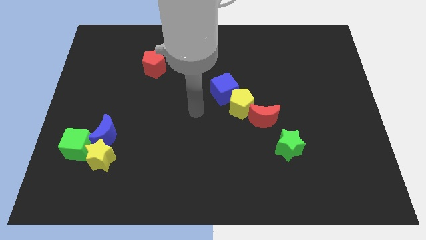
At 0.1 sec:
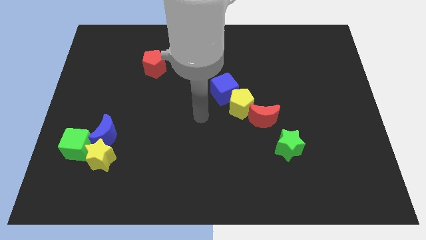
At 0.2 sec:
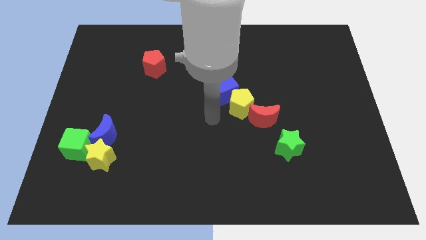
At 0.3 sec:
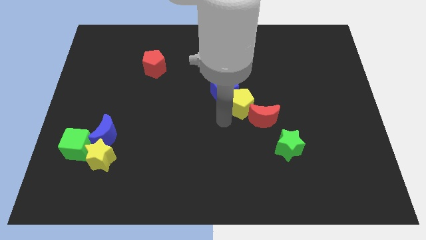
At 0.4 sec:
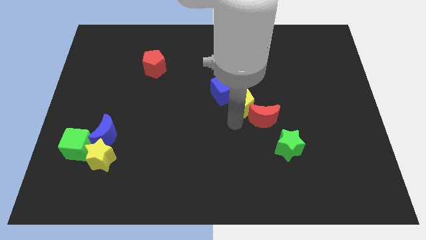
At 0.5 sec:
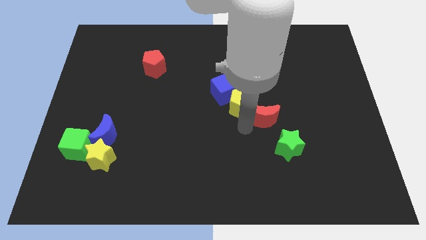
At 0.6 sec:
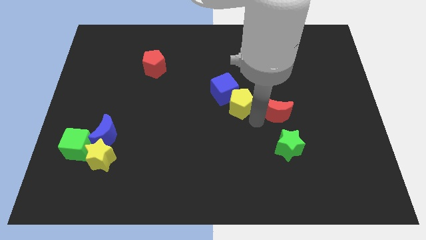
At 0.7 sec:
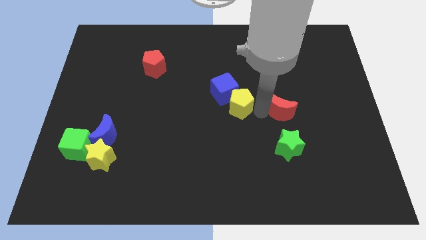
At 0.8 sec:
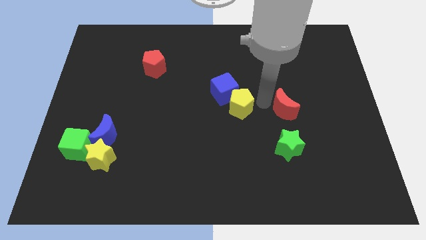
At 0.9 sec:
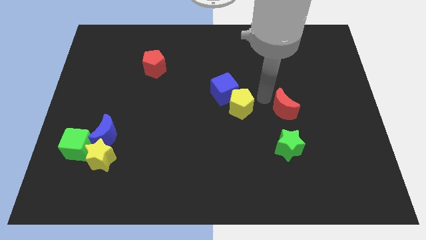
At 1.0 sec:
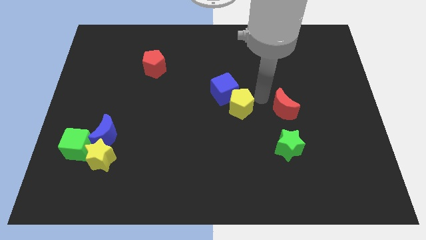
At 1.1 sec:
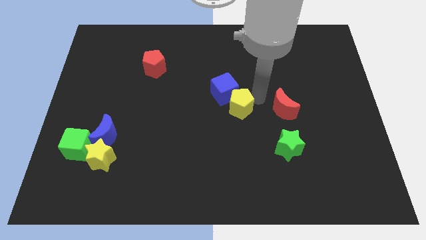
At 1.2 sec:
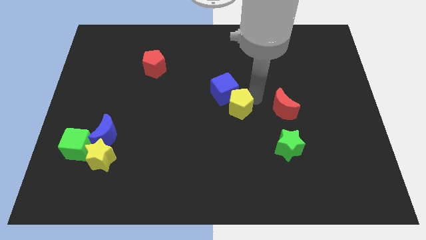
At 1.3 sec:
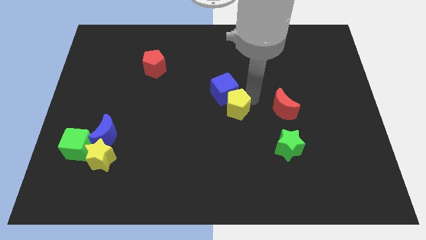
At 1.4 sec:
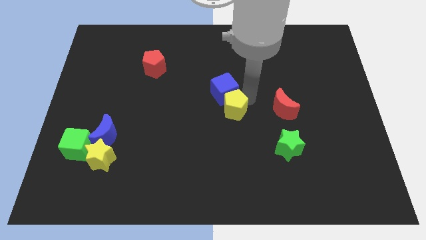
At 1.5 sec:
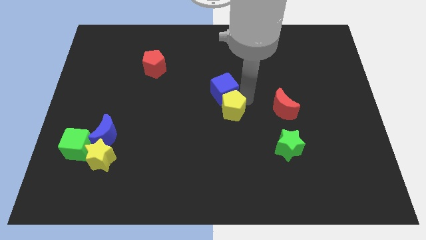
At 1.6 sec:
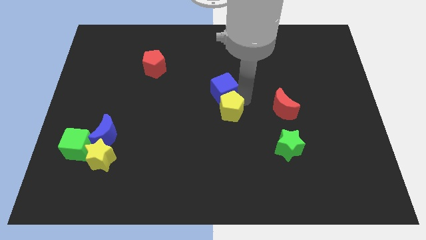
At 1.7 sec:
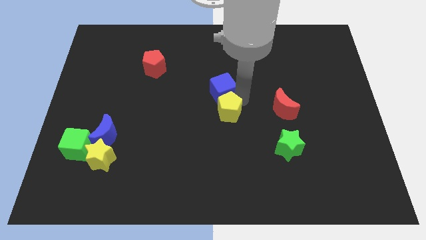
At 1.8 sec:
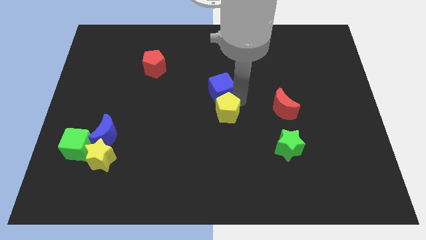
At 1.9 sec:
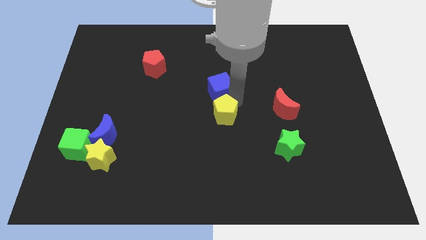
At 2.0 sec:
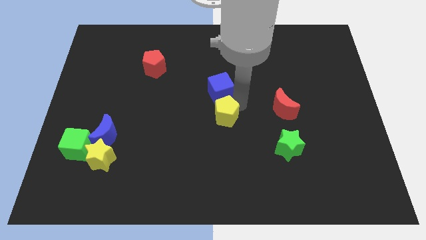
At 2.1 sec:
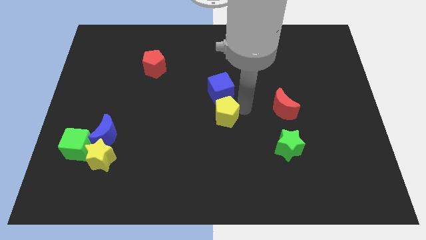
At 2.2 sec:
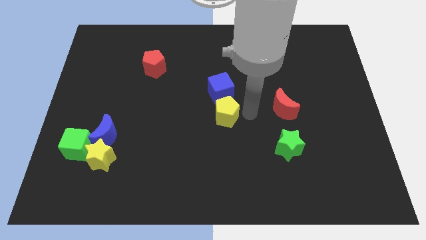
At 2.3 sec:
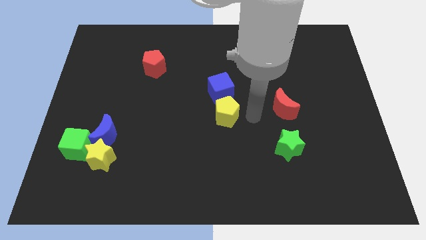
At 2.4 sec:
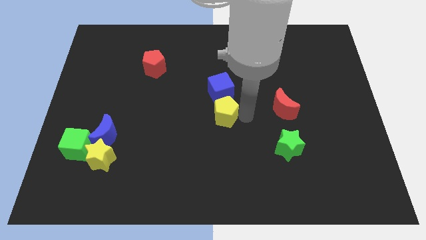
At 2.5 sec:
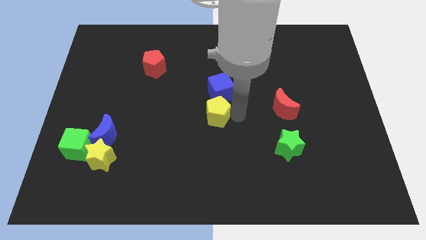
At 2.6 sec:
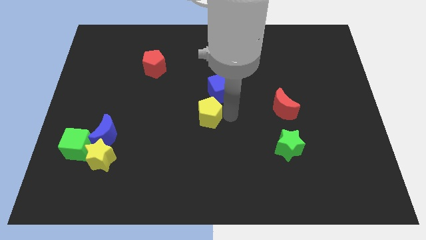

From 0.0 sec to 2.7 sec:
slightly push the yellow pentagon left

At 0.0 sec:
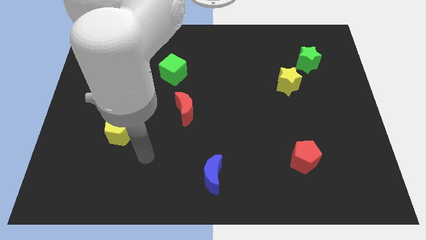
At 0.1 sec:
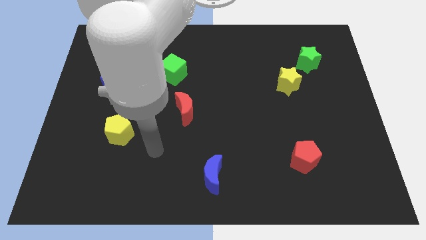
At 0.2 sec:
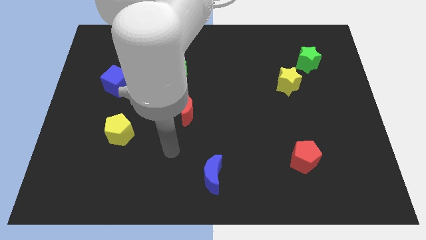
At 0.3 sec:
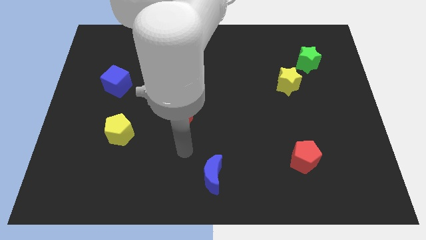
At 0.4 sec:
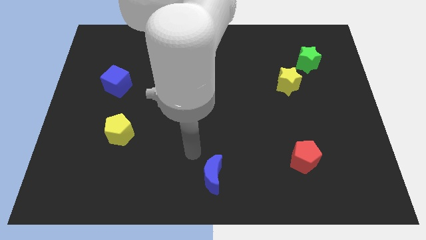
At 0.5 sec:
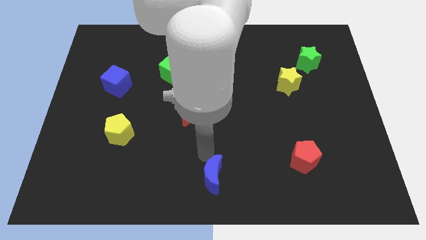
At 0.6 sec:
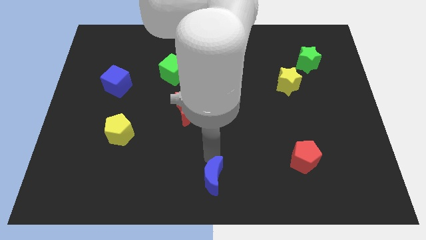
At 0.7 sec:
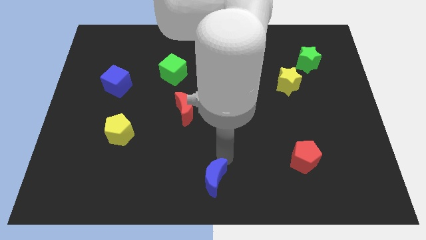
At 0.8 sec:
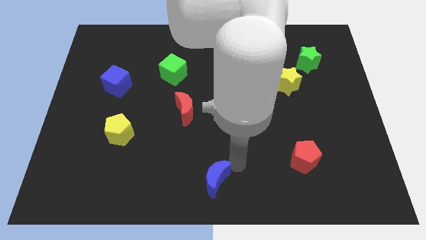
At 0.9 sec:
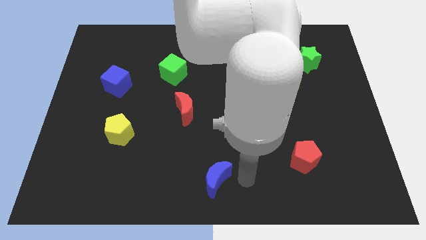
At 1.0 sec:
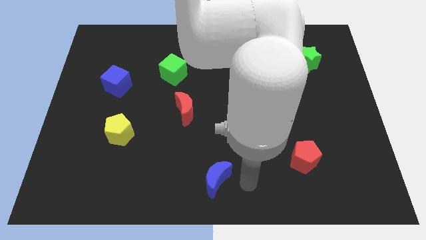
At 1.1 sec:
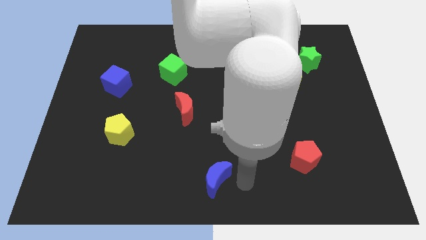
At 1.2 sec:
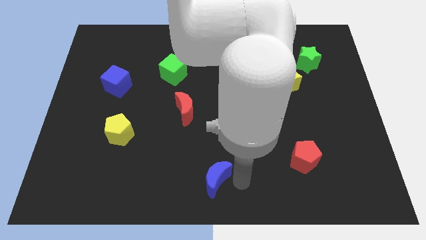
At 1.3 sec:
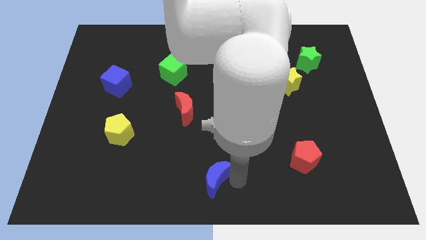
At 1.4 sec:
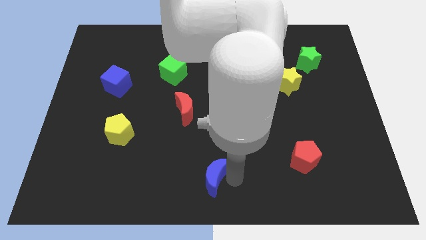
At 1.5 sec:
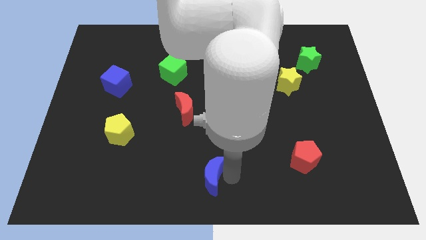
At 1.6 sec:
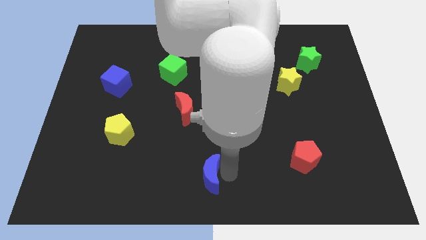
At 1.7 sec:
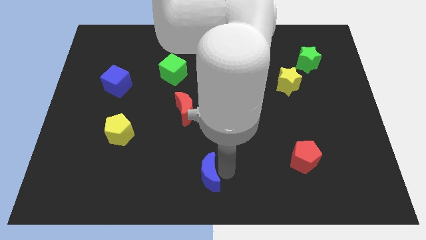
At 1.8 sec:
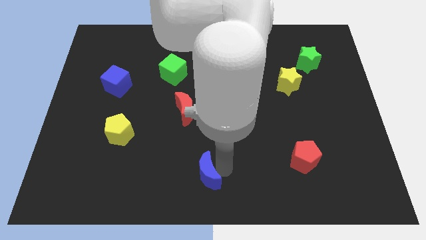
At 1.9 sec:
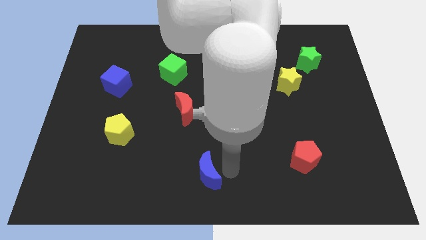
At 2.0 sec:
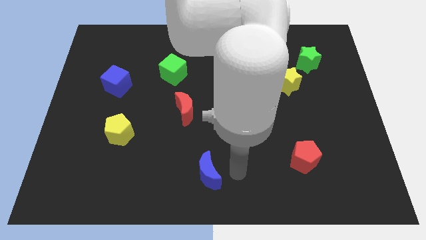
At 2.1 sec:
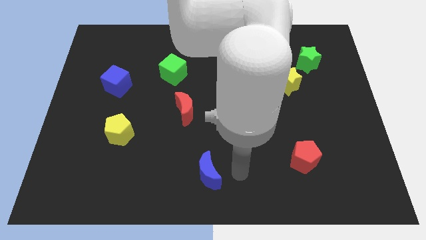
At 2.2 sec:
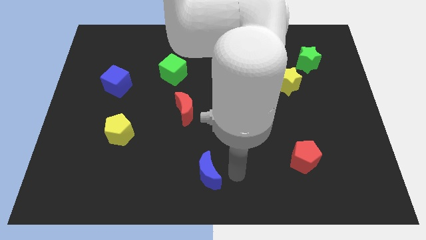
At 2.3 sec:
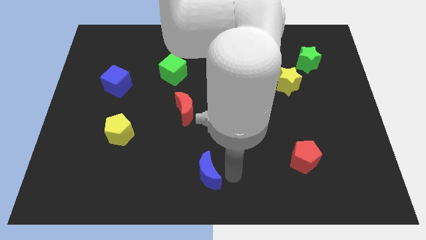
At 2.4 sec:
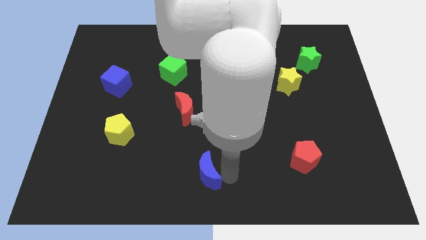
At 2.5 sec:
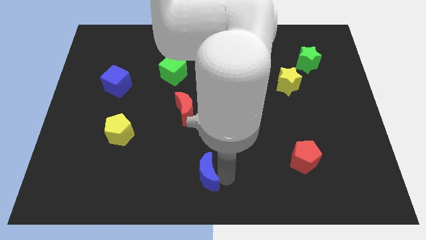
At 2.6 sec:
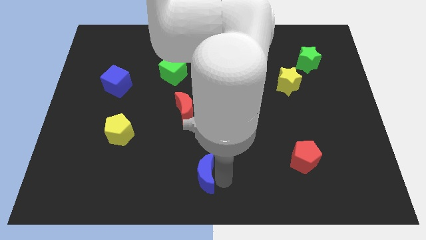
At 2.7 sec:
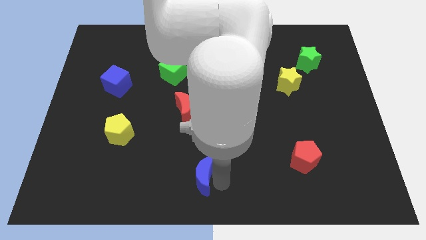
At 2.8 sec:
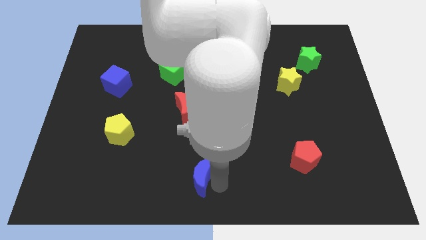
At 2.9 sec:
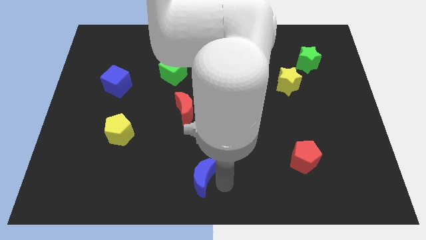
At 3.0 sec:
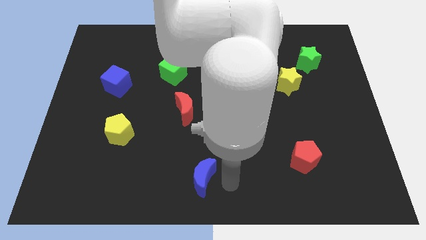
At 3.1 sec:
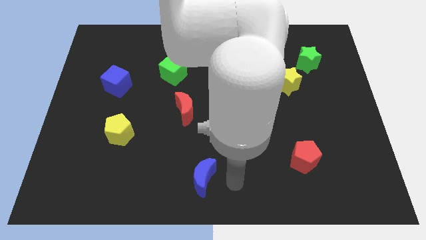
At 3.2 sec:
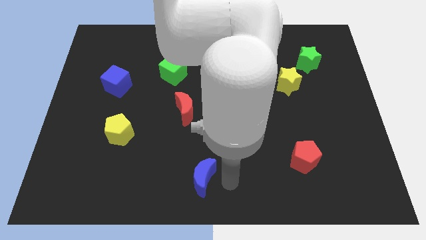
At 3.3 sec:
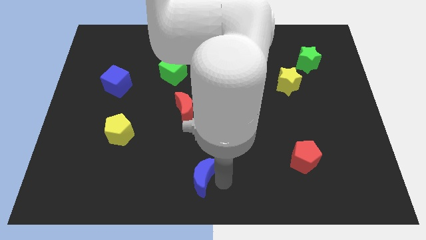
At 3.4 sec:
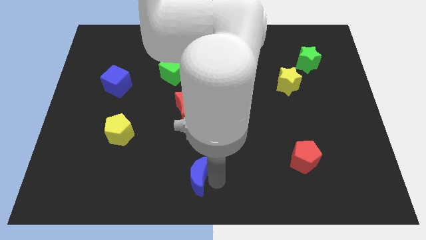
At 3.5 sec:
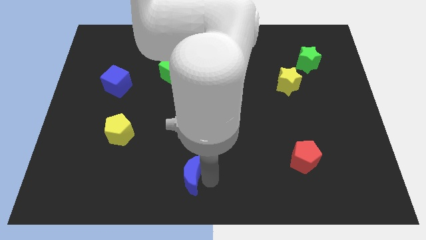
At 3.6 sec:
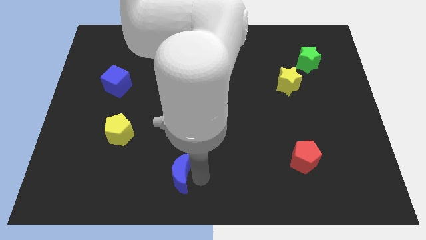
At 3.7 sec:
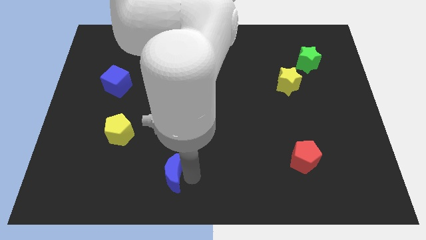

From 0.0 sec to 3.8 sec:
slightly slide the blue moon left

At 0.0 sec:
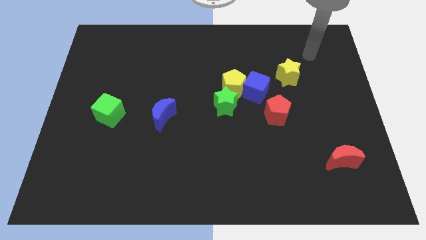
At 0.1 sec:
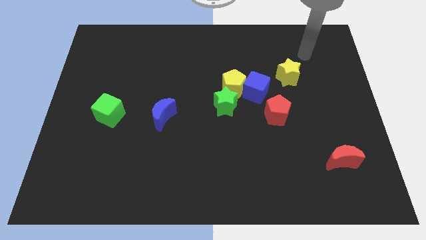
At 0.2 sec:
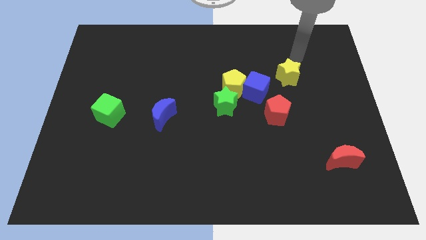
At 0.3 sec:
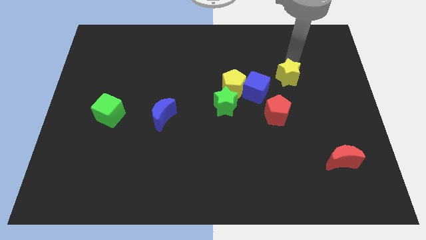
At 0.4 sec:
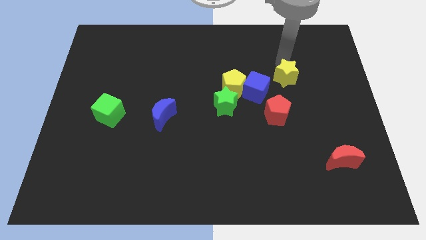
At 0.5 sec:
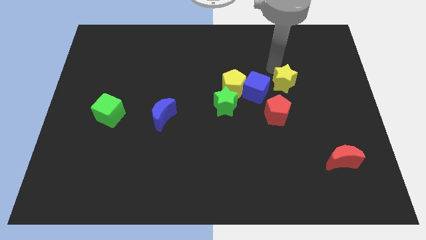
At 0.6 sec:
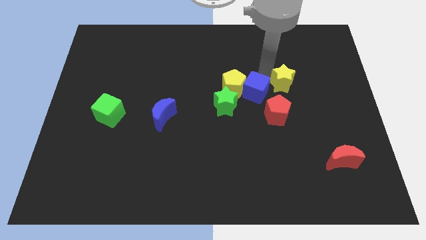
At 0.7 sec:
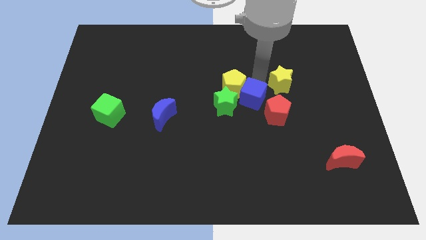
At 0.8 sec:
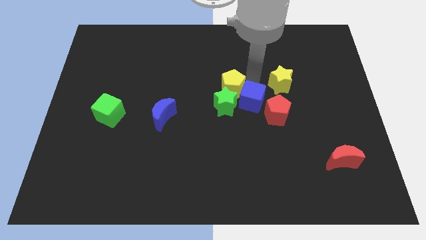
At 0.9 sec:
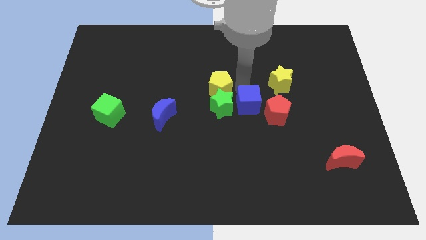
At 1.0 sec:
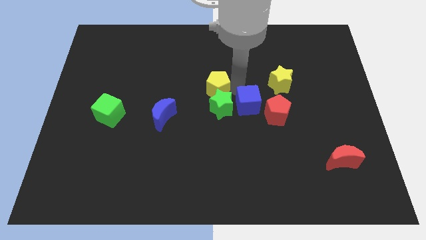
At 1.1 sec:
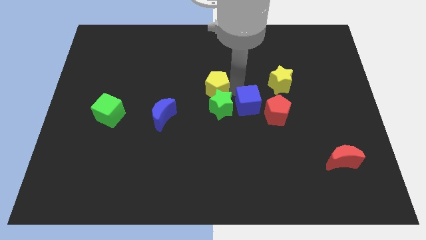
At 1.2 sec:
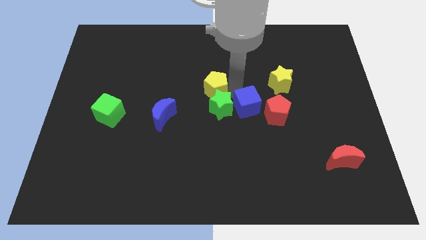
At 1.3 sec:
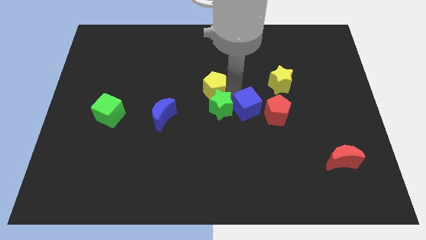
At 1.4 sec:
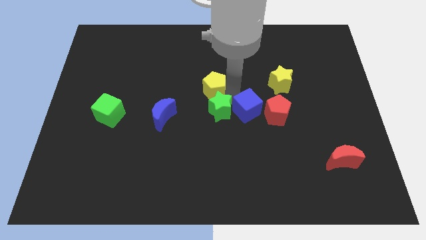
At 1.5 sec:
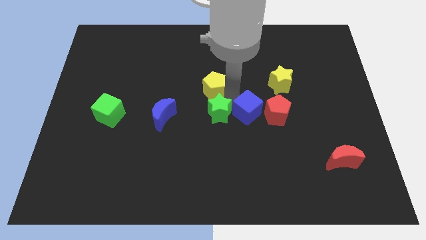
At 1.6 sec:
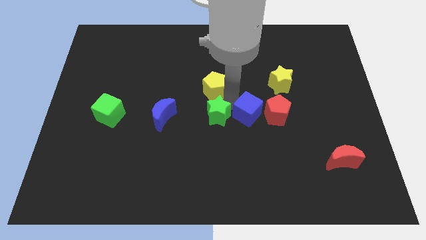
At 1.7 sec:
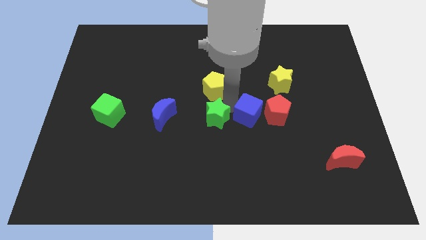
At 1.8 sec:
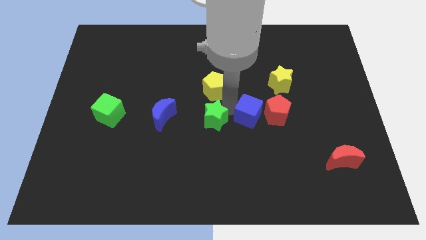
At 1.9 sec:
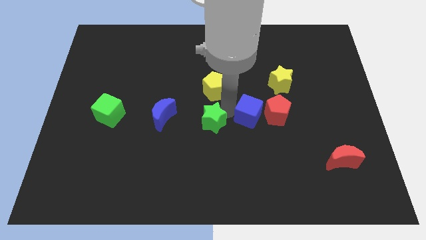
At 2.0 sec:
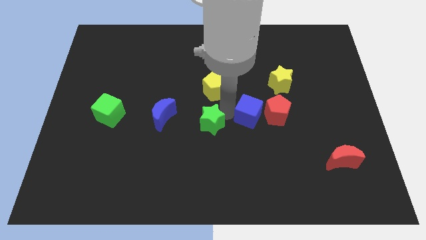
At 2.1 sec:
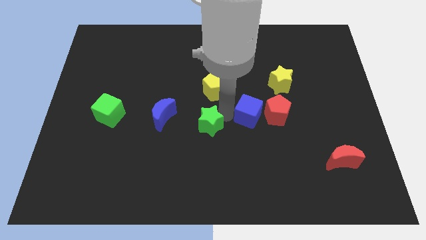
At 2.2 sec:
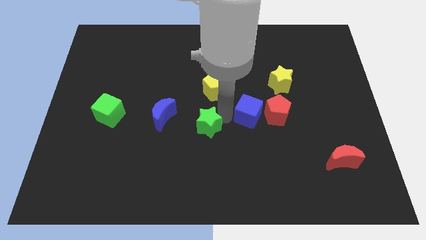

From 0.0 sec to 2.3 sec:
slightly move the green star down and left diagonally
